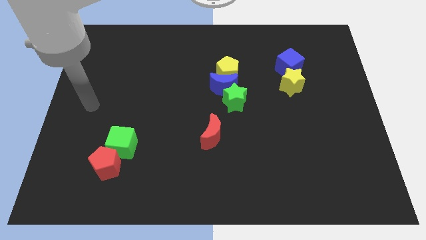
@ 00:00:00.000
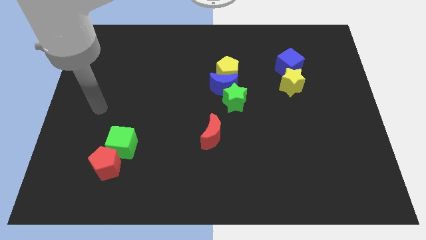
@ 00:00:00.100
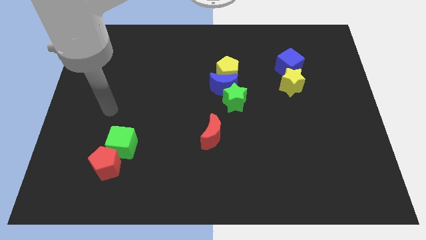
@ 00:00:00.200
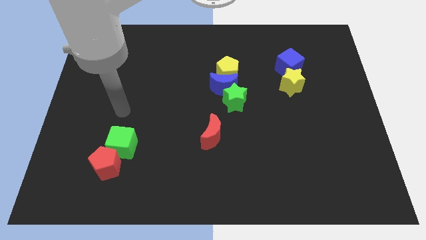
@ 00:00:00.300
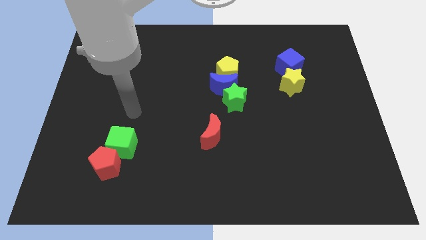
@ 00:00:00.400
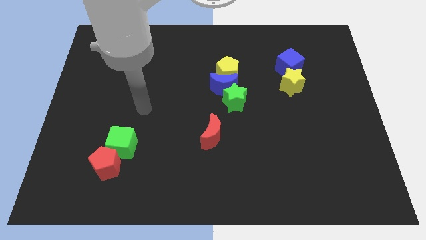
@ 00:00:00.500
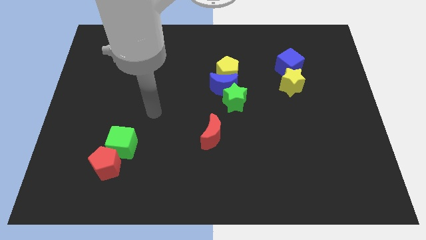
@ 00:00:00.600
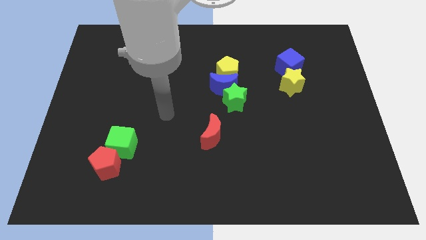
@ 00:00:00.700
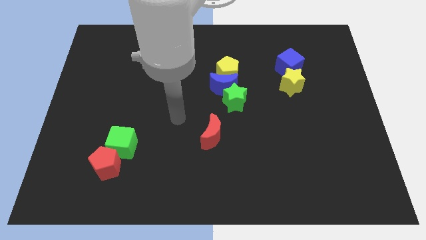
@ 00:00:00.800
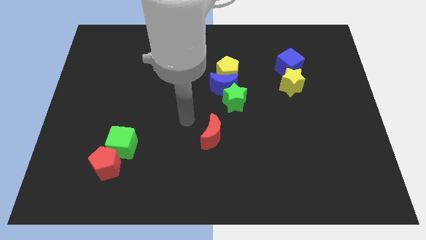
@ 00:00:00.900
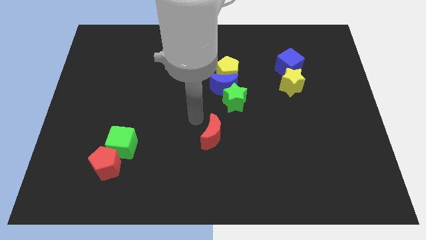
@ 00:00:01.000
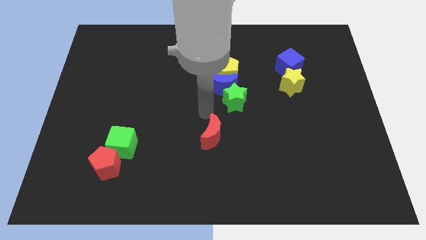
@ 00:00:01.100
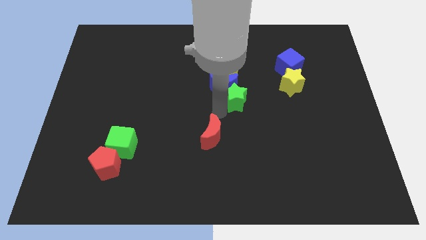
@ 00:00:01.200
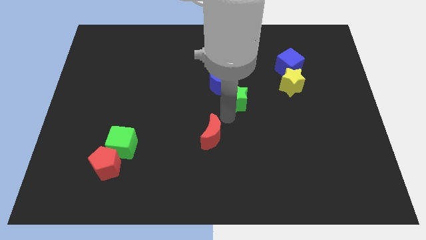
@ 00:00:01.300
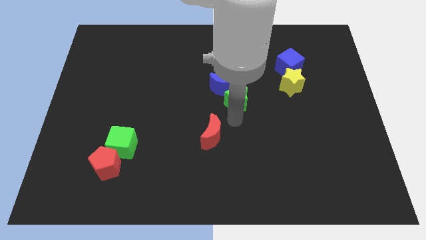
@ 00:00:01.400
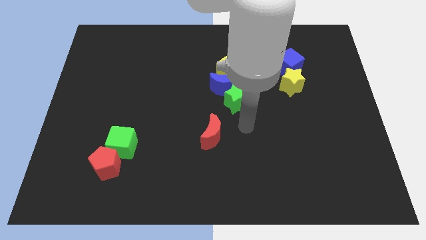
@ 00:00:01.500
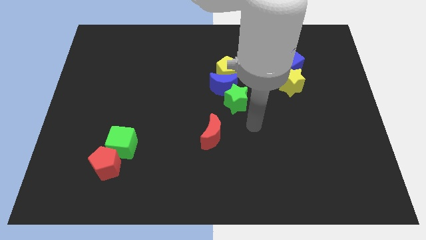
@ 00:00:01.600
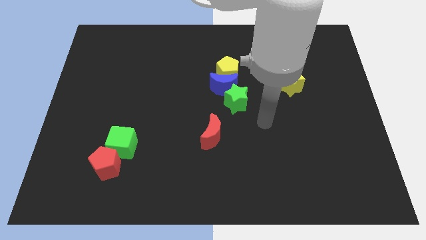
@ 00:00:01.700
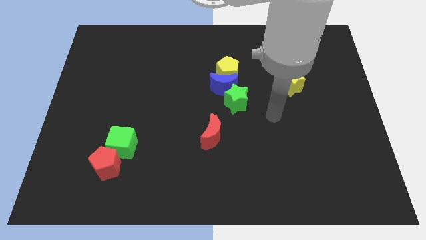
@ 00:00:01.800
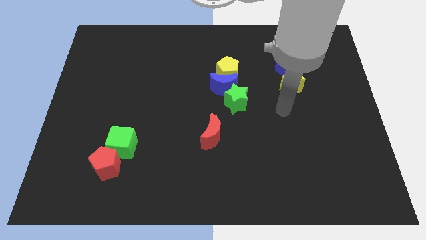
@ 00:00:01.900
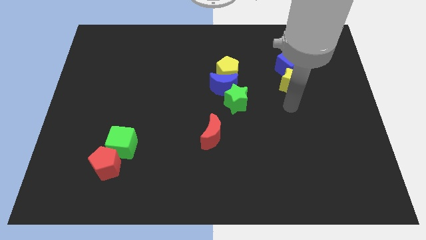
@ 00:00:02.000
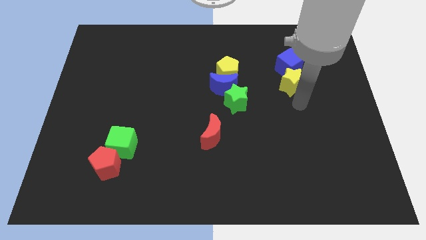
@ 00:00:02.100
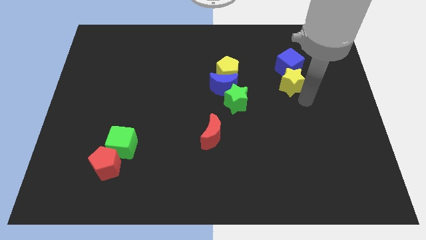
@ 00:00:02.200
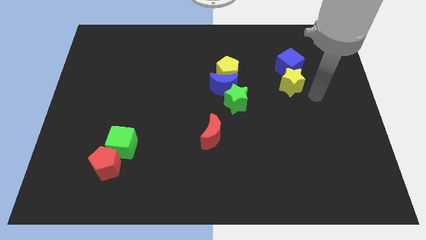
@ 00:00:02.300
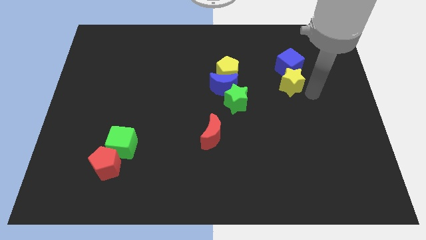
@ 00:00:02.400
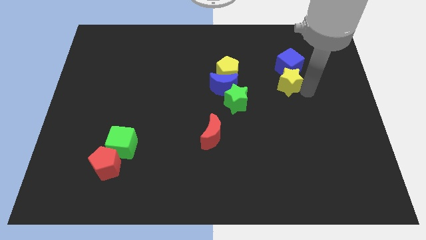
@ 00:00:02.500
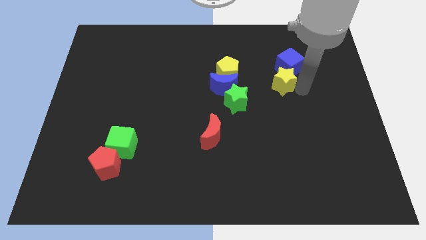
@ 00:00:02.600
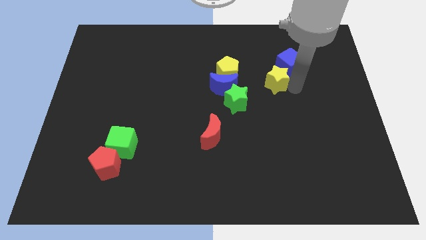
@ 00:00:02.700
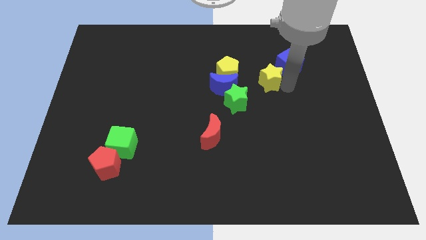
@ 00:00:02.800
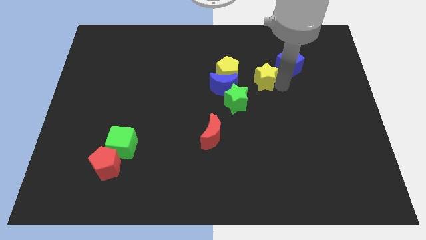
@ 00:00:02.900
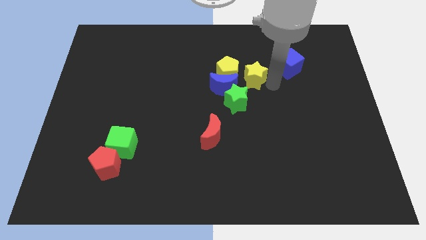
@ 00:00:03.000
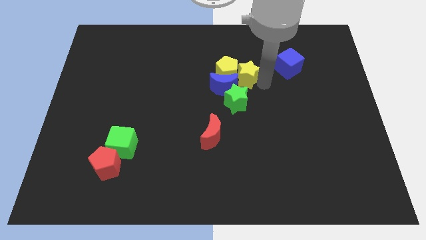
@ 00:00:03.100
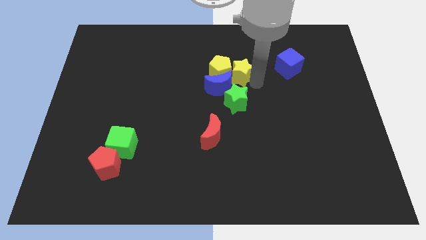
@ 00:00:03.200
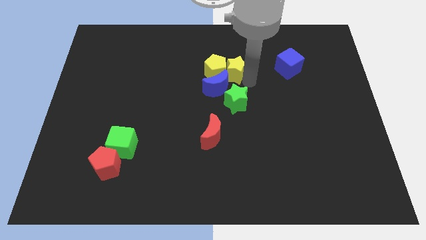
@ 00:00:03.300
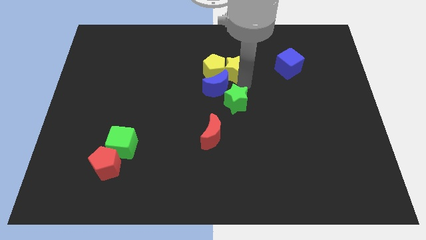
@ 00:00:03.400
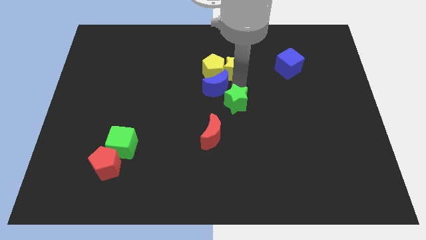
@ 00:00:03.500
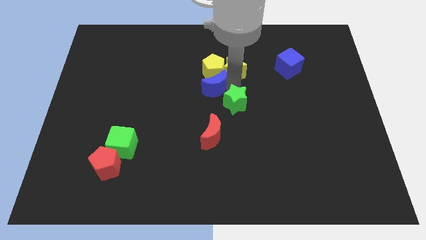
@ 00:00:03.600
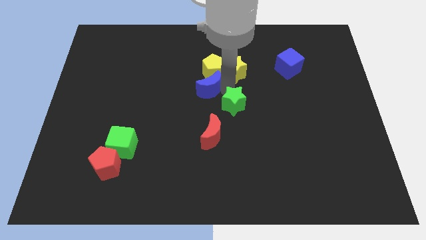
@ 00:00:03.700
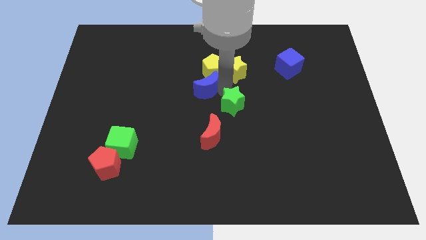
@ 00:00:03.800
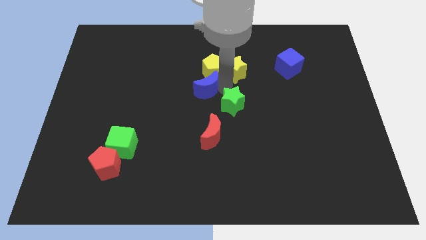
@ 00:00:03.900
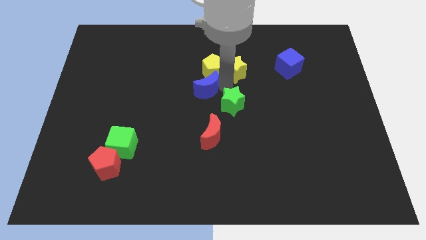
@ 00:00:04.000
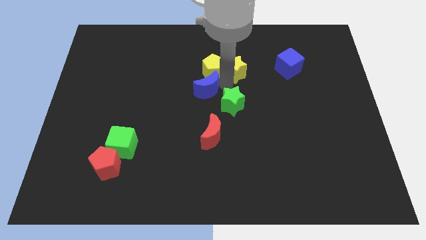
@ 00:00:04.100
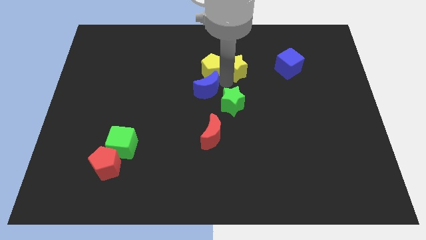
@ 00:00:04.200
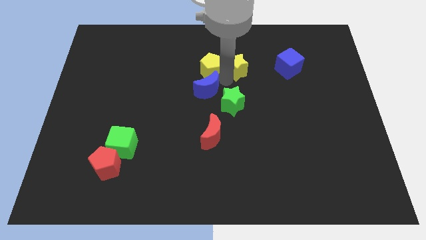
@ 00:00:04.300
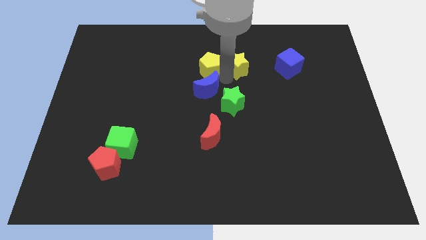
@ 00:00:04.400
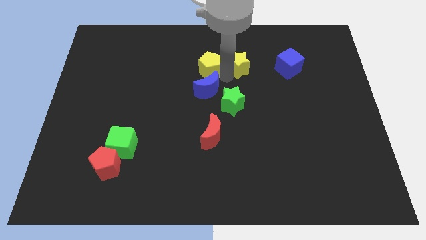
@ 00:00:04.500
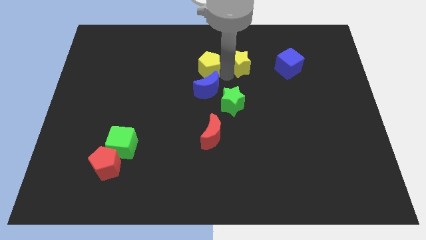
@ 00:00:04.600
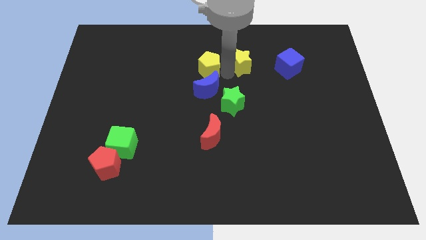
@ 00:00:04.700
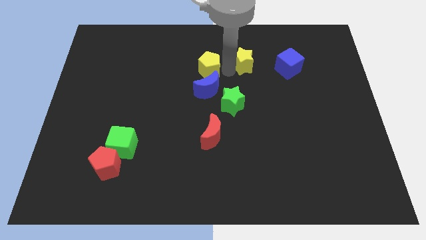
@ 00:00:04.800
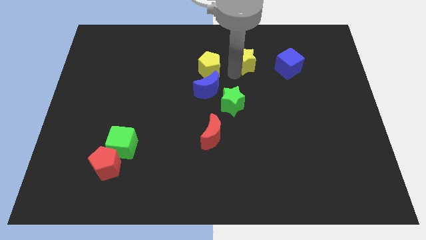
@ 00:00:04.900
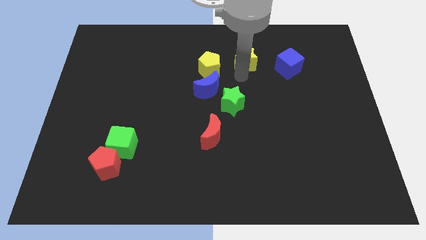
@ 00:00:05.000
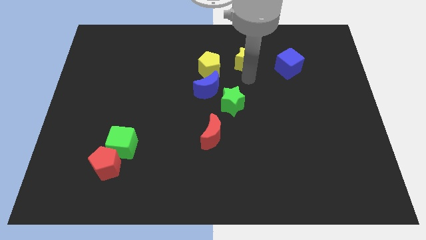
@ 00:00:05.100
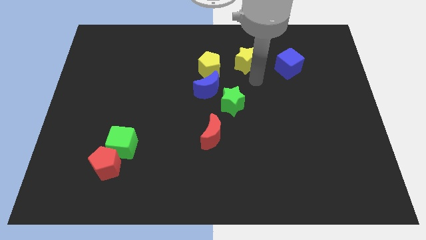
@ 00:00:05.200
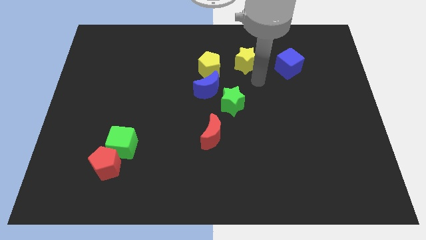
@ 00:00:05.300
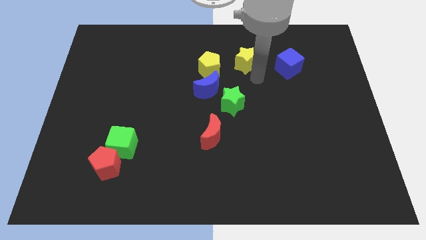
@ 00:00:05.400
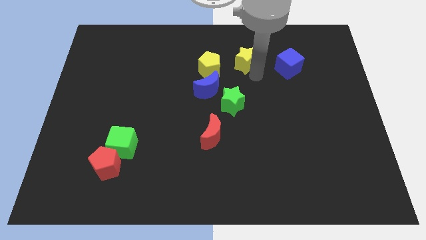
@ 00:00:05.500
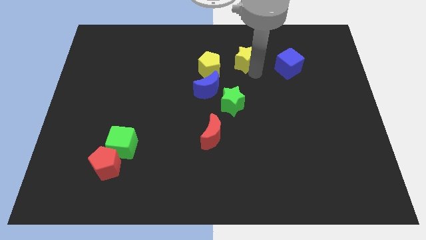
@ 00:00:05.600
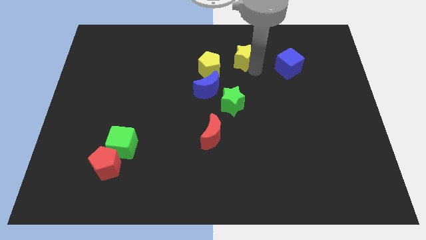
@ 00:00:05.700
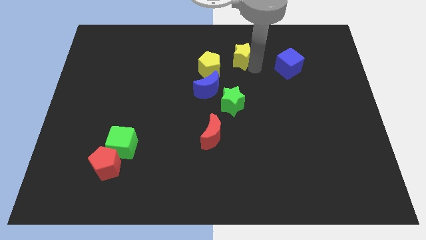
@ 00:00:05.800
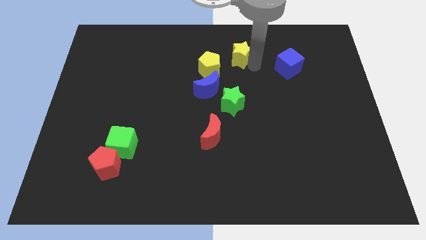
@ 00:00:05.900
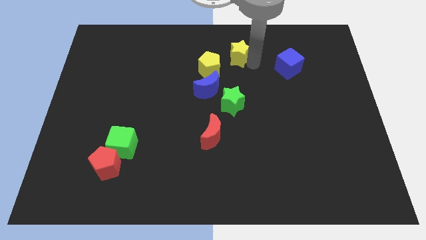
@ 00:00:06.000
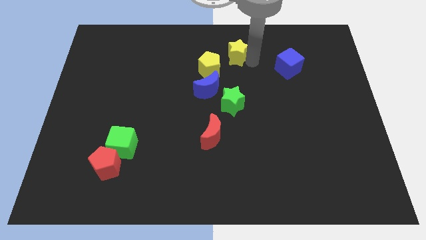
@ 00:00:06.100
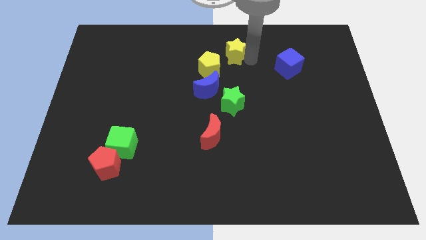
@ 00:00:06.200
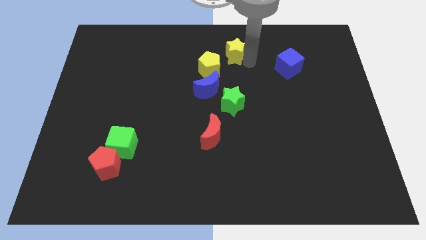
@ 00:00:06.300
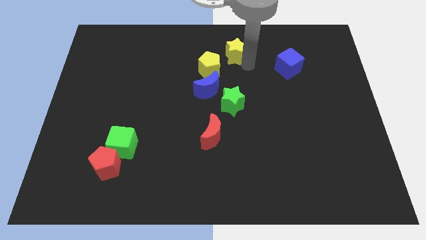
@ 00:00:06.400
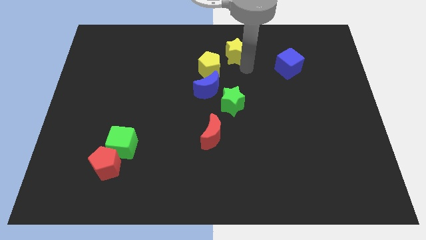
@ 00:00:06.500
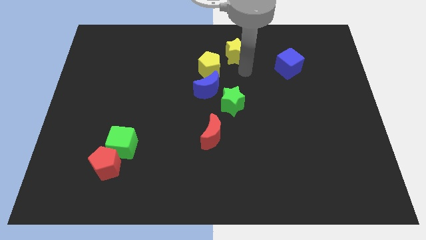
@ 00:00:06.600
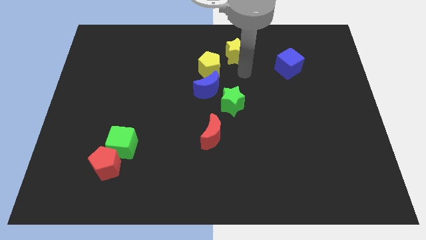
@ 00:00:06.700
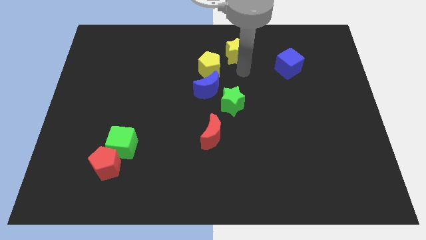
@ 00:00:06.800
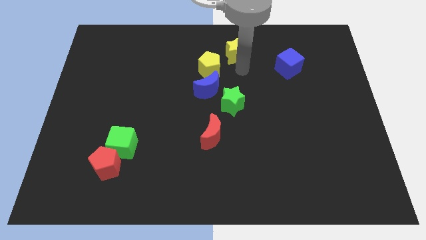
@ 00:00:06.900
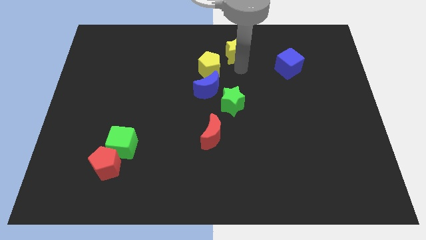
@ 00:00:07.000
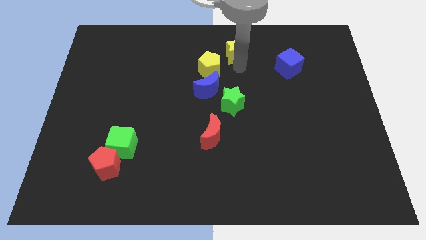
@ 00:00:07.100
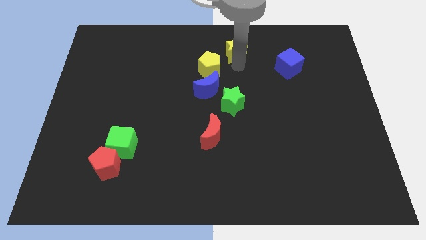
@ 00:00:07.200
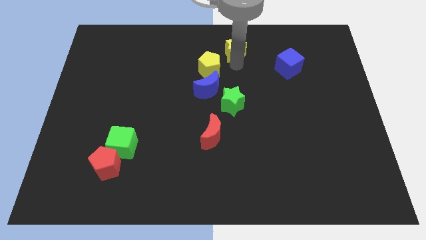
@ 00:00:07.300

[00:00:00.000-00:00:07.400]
put the yellow star to the top side

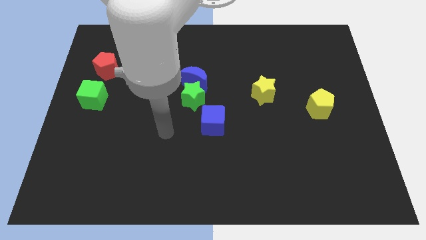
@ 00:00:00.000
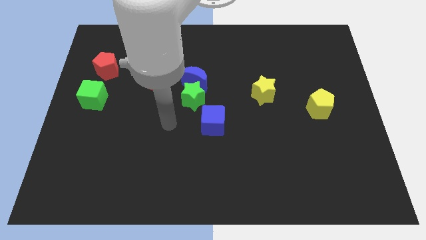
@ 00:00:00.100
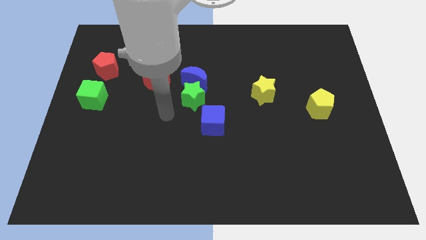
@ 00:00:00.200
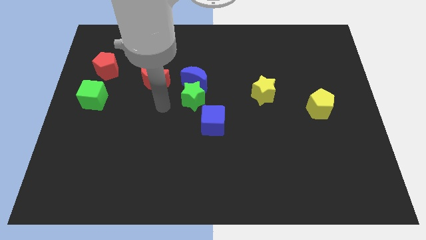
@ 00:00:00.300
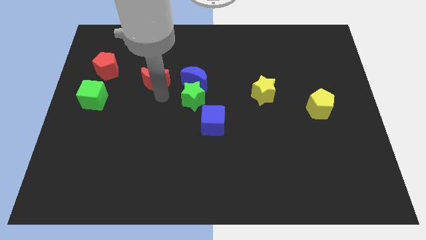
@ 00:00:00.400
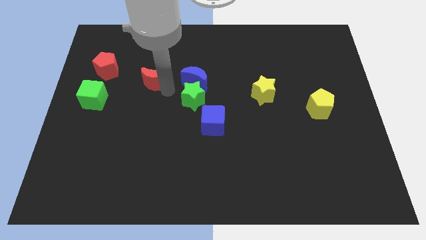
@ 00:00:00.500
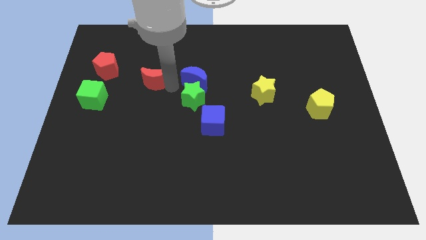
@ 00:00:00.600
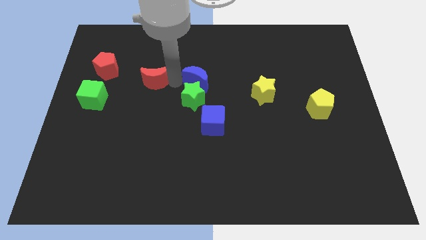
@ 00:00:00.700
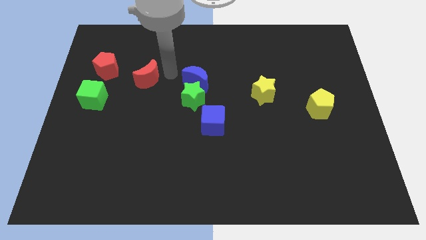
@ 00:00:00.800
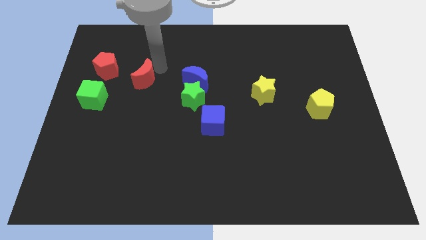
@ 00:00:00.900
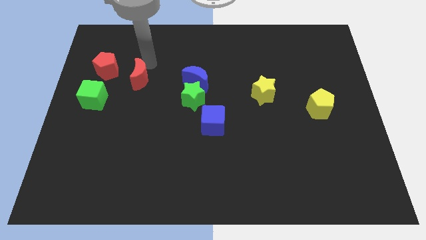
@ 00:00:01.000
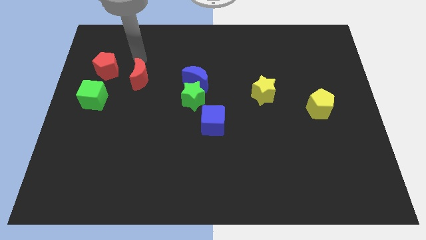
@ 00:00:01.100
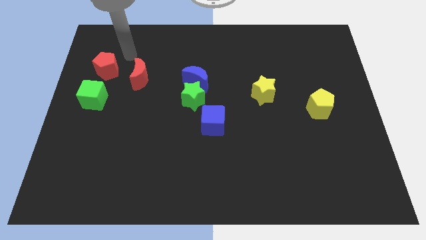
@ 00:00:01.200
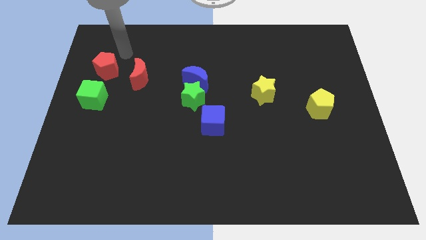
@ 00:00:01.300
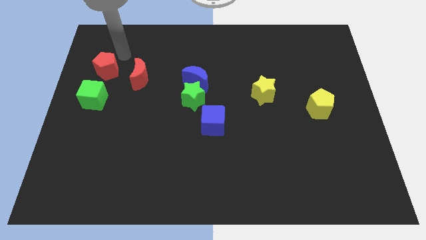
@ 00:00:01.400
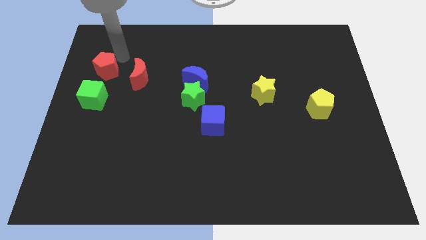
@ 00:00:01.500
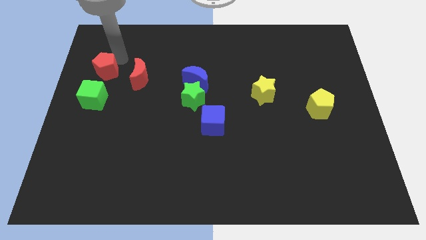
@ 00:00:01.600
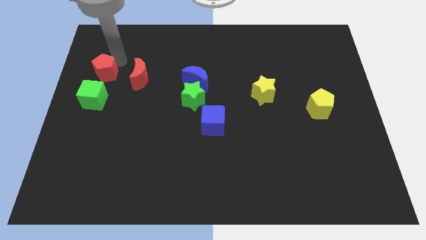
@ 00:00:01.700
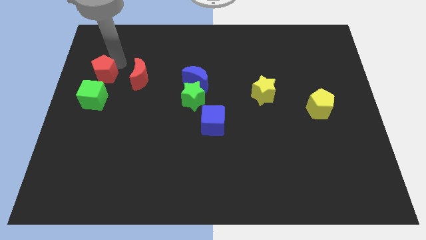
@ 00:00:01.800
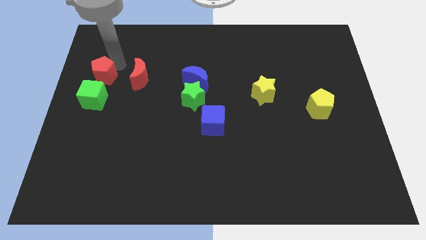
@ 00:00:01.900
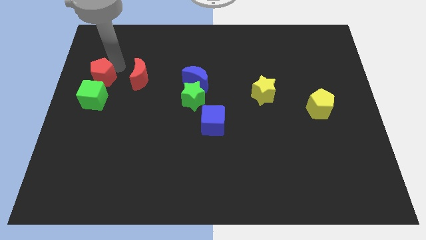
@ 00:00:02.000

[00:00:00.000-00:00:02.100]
put the red pentagon to the left side
